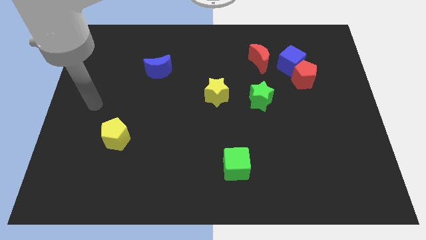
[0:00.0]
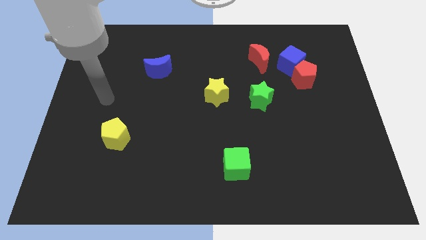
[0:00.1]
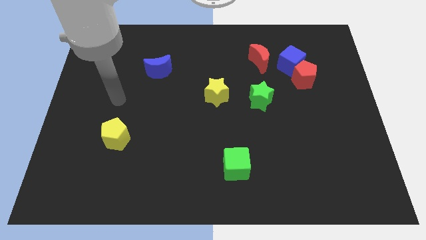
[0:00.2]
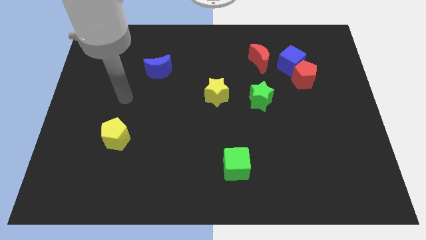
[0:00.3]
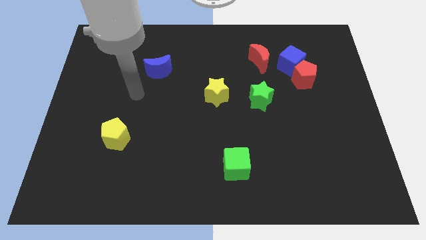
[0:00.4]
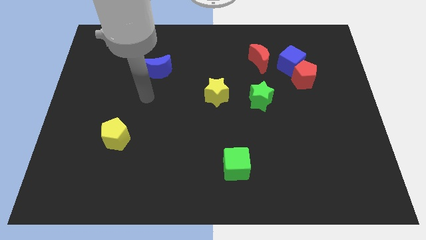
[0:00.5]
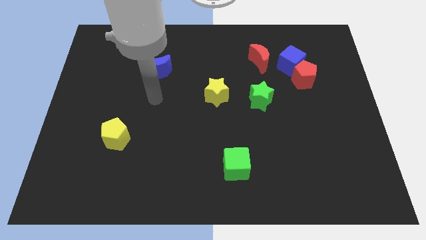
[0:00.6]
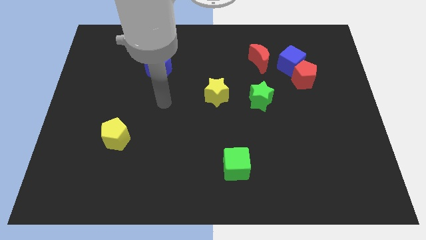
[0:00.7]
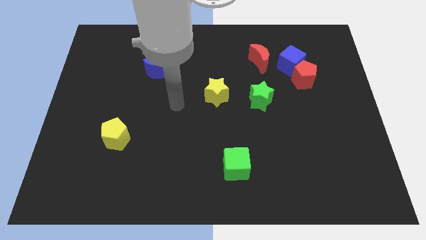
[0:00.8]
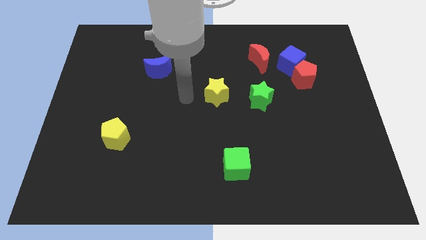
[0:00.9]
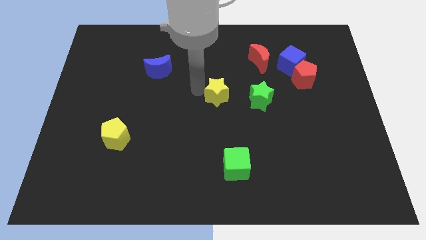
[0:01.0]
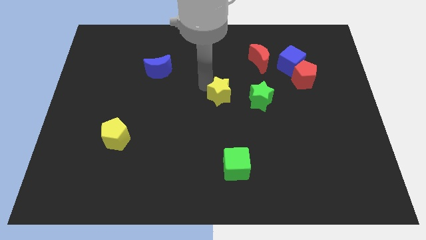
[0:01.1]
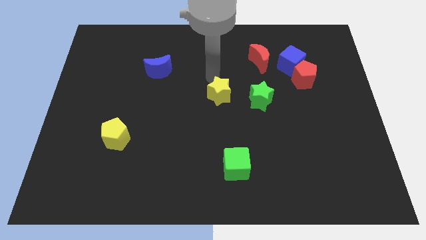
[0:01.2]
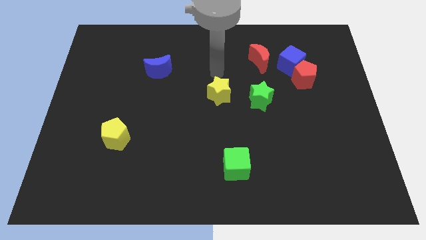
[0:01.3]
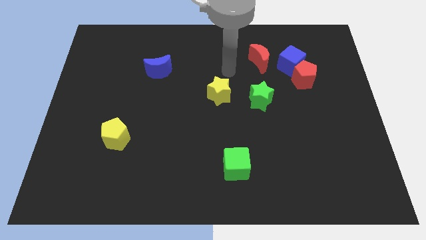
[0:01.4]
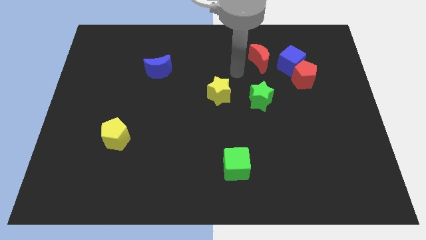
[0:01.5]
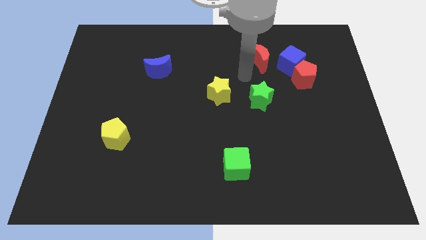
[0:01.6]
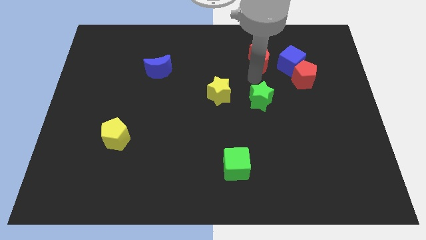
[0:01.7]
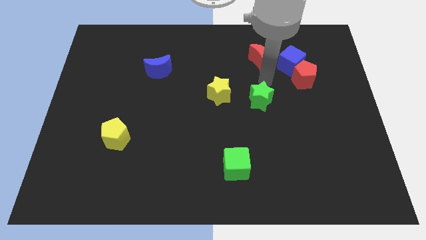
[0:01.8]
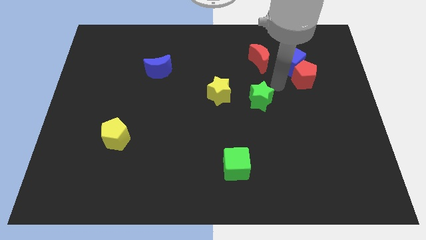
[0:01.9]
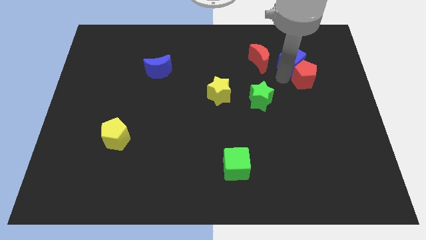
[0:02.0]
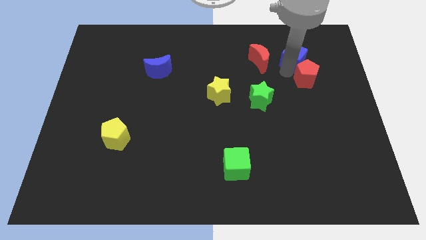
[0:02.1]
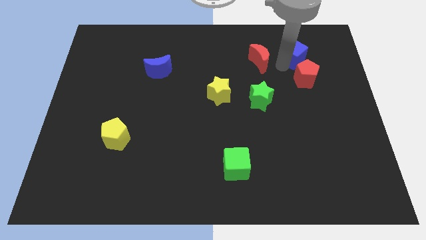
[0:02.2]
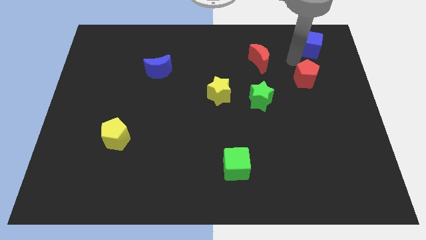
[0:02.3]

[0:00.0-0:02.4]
move the red pentagon away from the blue cube

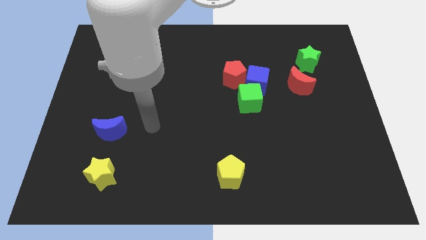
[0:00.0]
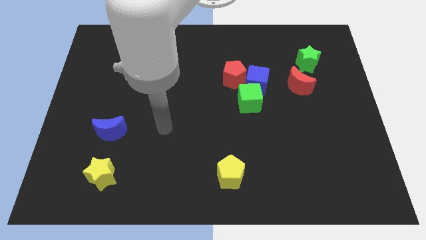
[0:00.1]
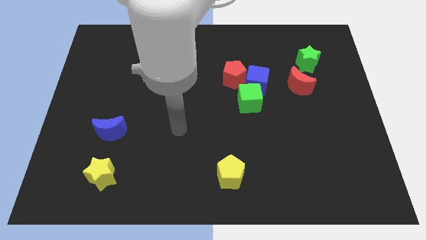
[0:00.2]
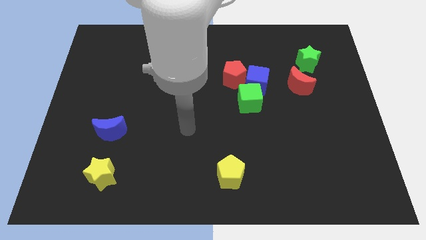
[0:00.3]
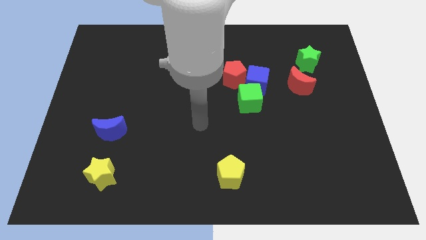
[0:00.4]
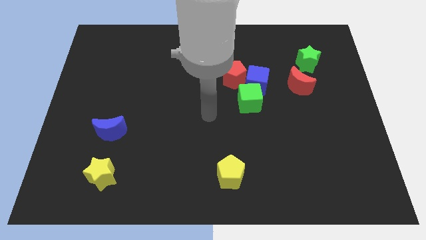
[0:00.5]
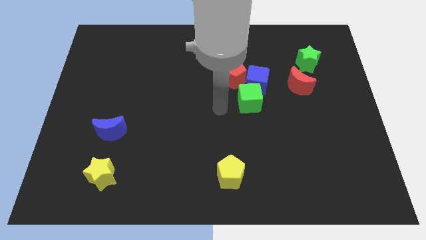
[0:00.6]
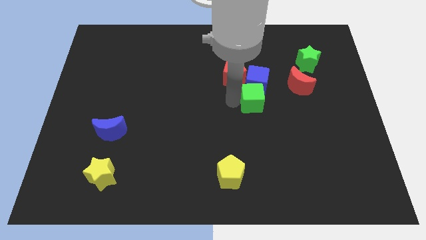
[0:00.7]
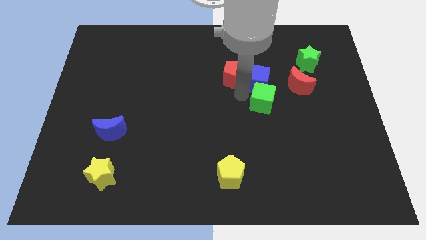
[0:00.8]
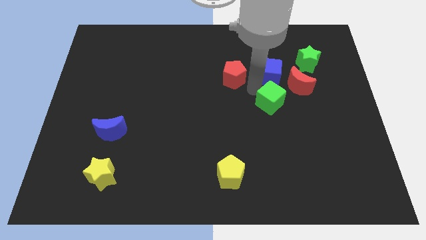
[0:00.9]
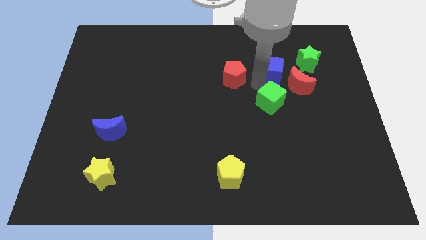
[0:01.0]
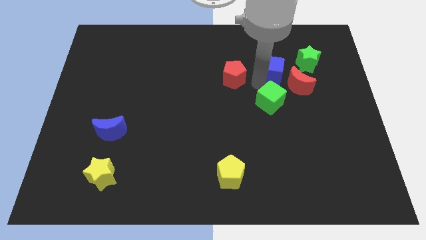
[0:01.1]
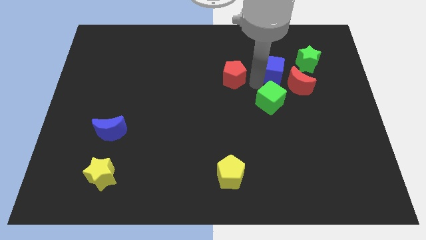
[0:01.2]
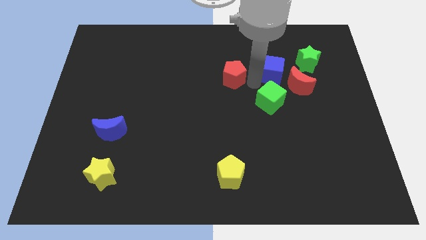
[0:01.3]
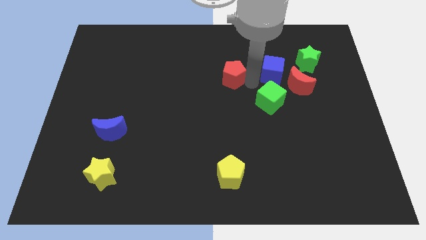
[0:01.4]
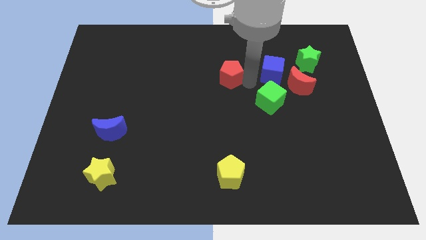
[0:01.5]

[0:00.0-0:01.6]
separate the red pentagon from the blue cube and green cube

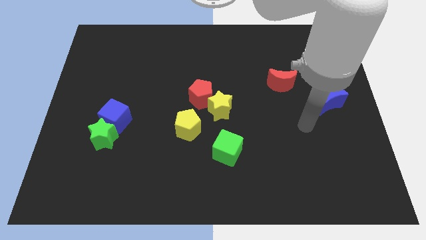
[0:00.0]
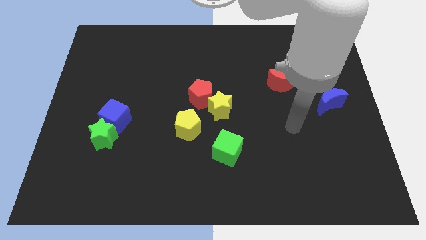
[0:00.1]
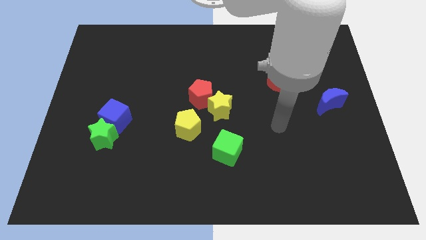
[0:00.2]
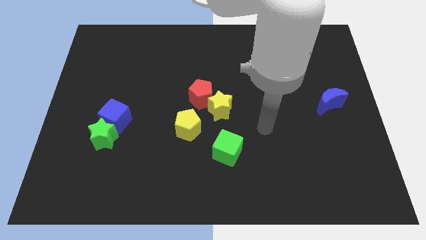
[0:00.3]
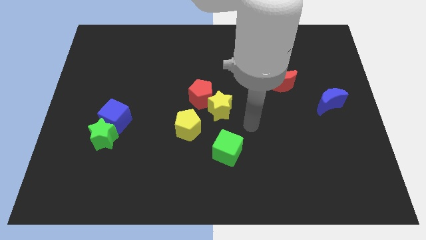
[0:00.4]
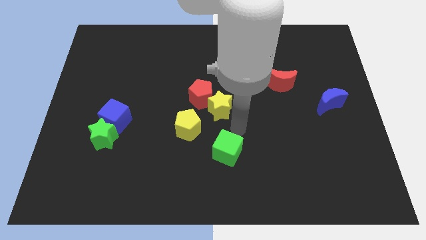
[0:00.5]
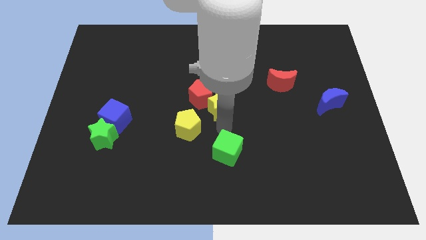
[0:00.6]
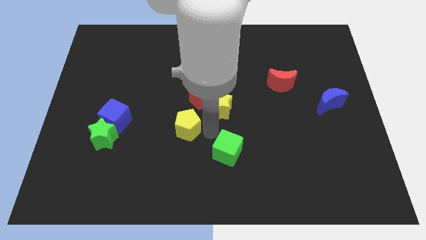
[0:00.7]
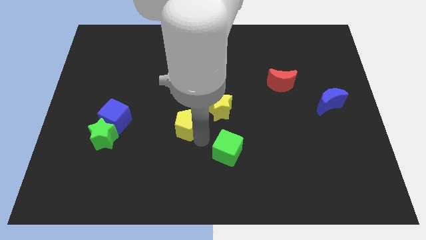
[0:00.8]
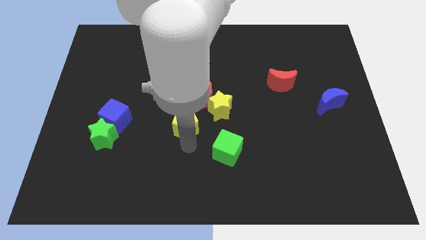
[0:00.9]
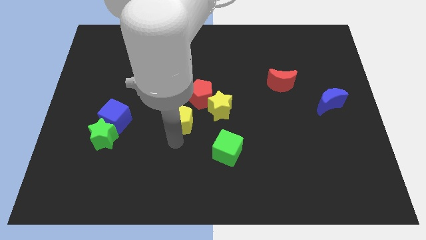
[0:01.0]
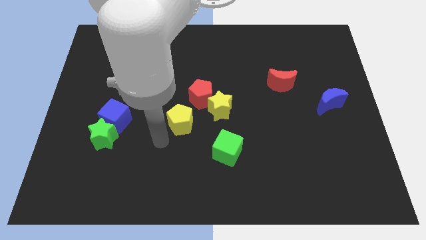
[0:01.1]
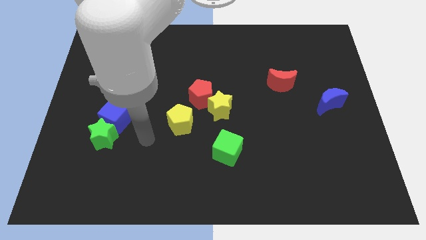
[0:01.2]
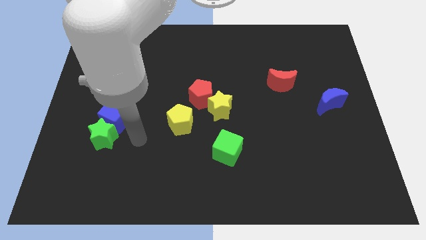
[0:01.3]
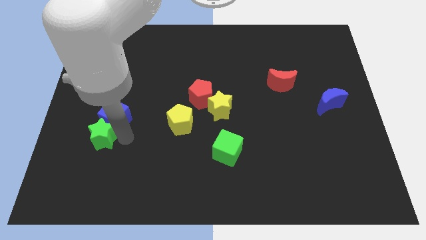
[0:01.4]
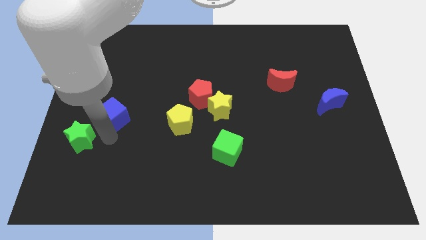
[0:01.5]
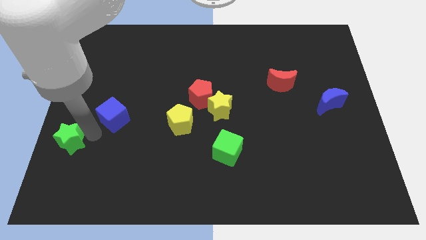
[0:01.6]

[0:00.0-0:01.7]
move the blue cube away from the green star

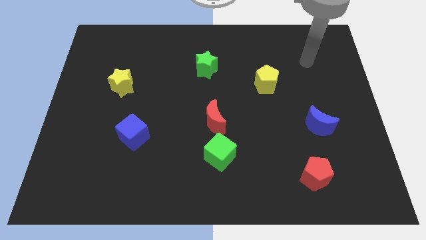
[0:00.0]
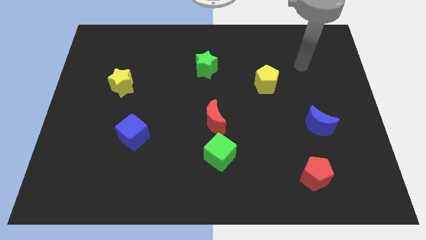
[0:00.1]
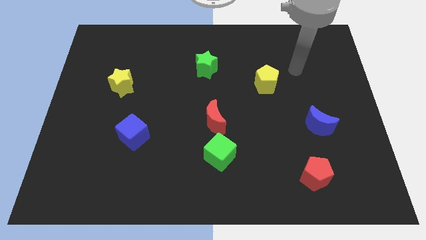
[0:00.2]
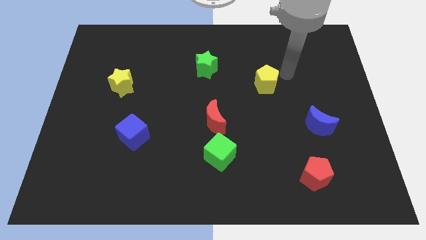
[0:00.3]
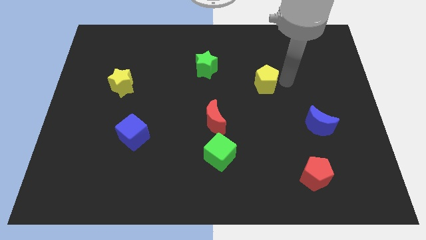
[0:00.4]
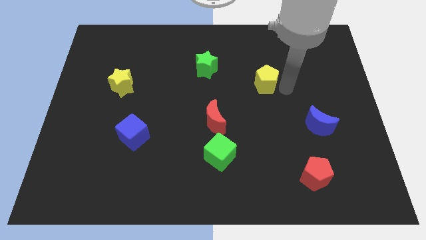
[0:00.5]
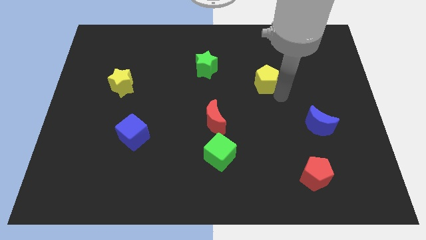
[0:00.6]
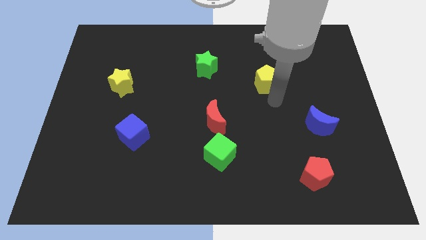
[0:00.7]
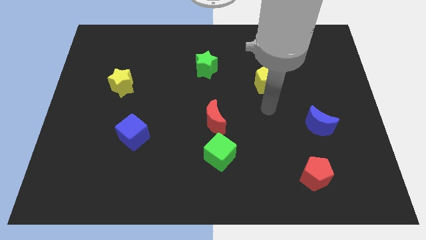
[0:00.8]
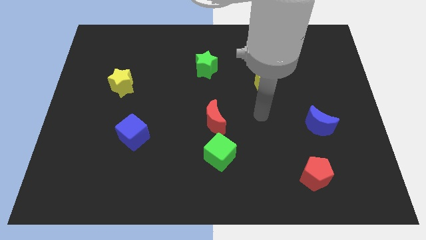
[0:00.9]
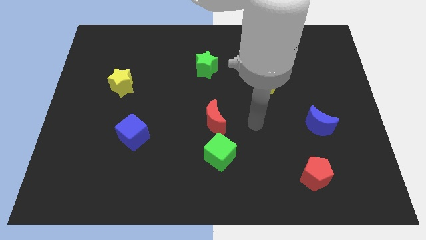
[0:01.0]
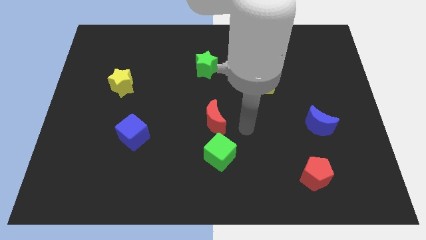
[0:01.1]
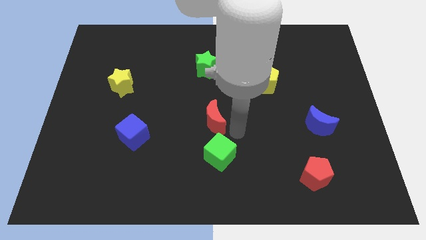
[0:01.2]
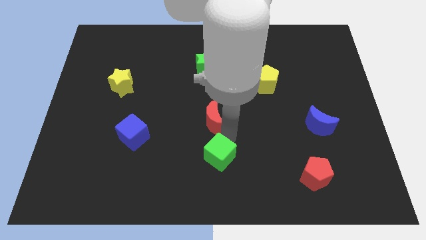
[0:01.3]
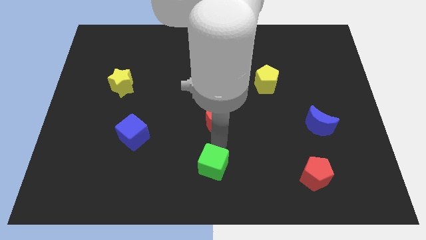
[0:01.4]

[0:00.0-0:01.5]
pull the red moon apart from the green cube

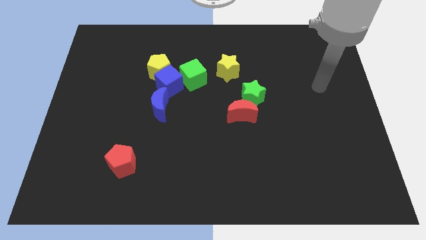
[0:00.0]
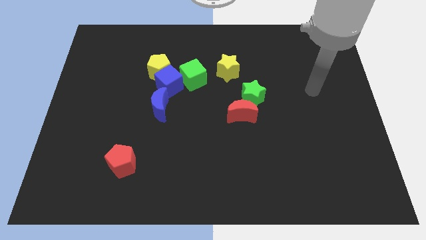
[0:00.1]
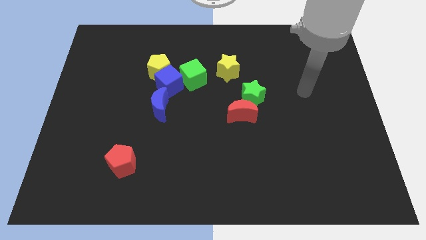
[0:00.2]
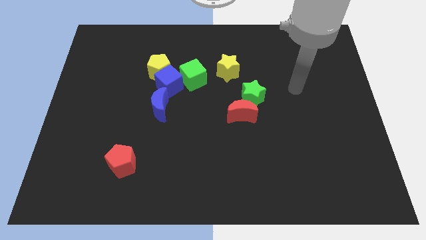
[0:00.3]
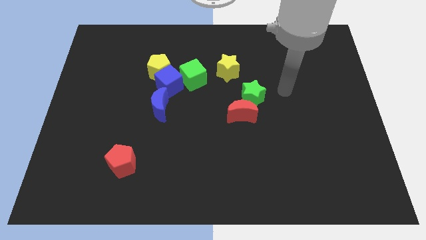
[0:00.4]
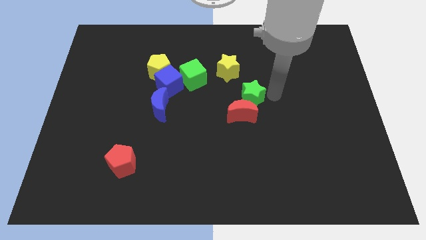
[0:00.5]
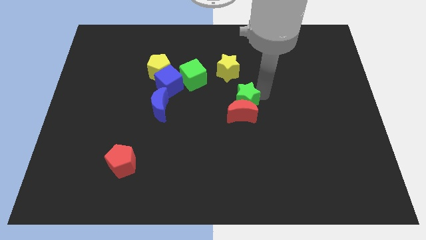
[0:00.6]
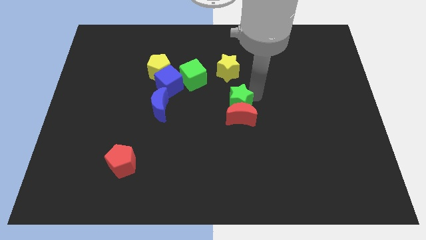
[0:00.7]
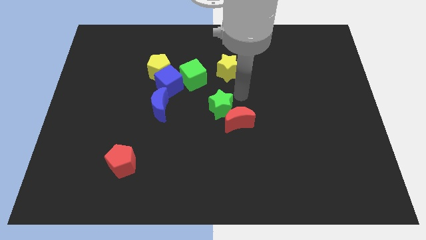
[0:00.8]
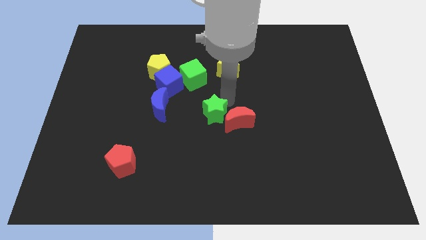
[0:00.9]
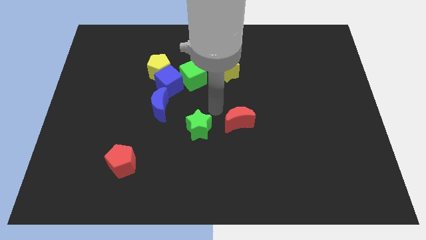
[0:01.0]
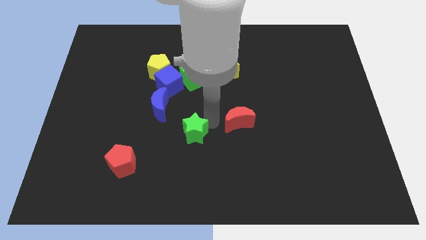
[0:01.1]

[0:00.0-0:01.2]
separate the red moon from the green star

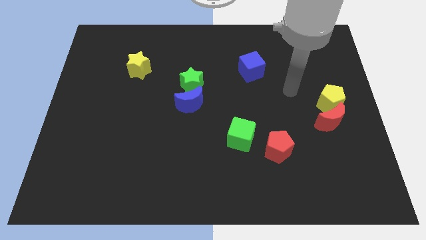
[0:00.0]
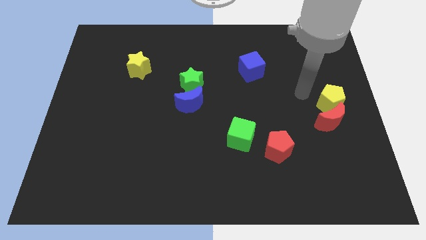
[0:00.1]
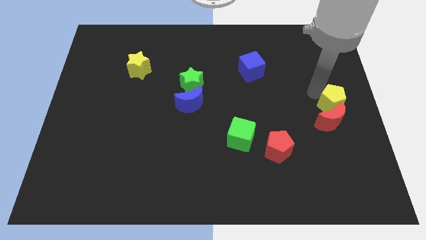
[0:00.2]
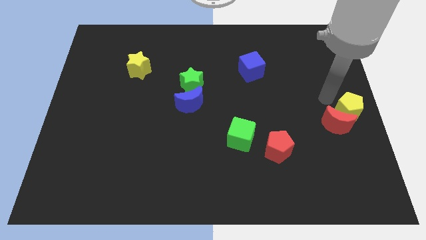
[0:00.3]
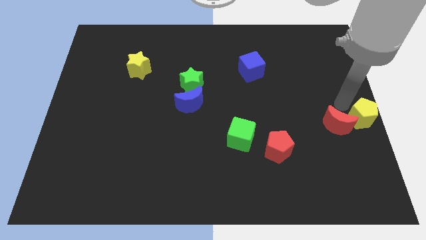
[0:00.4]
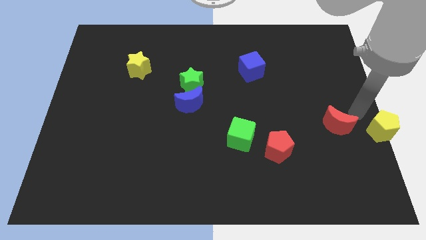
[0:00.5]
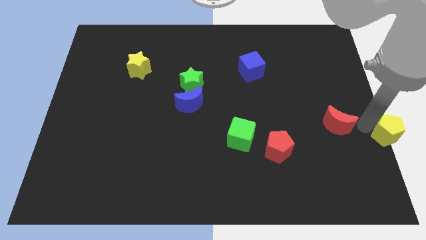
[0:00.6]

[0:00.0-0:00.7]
separate the red moon from the yellow pentagon

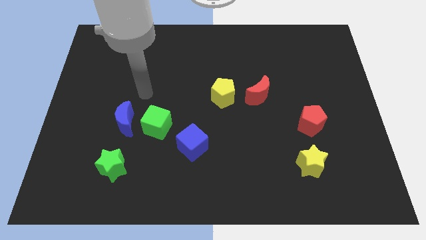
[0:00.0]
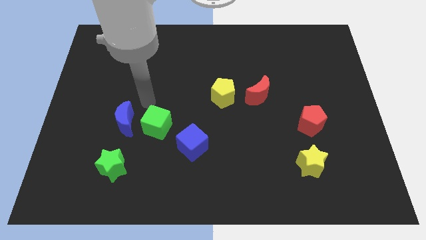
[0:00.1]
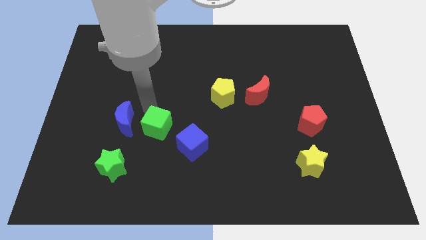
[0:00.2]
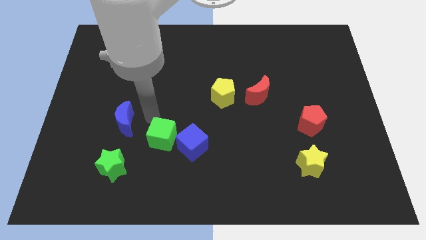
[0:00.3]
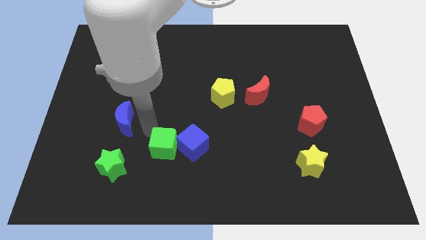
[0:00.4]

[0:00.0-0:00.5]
separate the blue moon from the green cube
